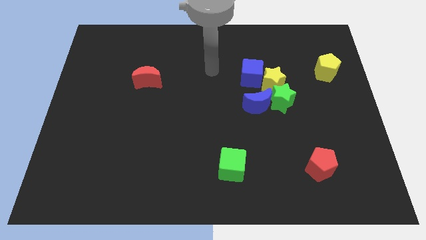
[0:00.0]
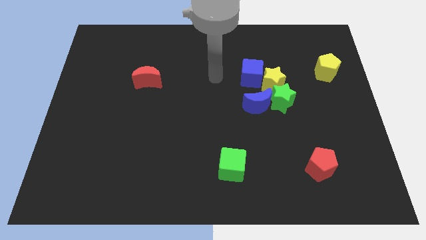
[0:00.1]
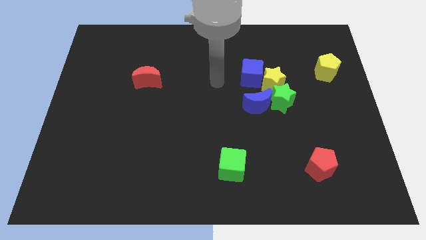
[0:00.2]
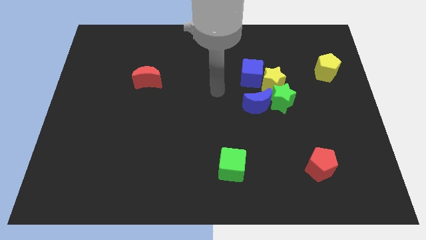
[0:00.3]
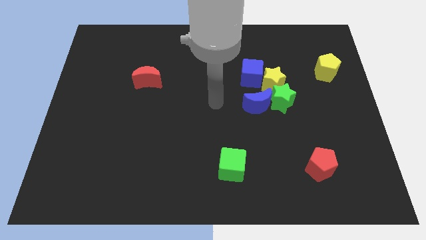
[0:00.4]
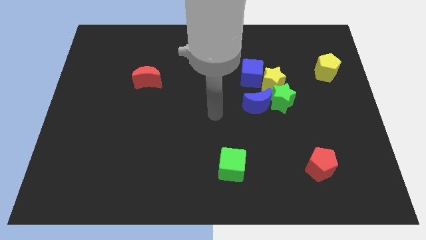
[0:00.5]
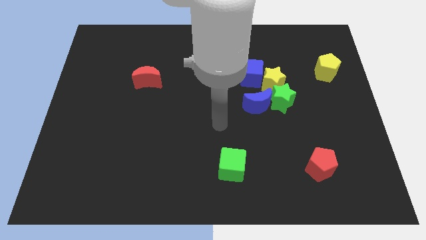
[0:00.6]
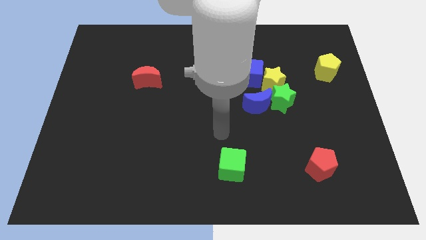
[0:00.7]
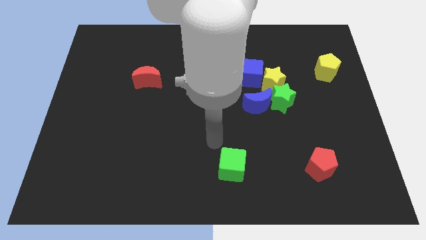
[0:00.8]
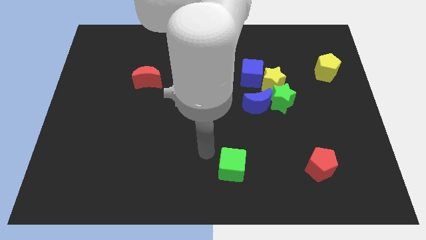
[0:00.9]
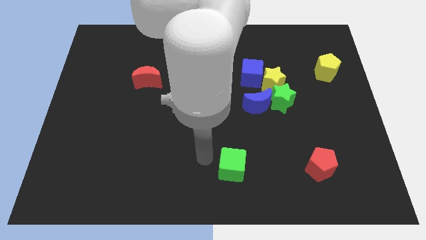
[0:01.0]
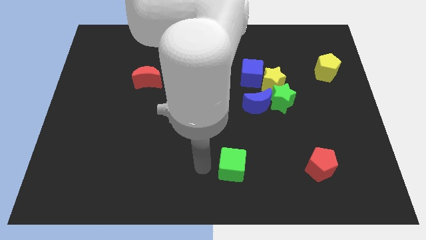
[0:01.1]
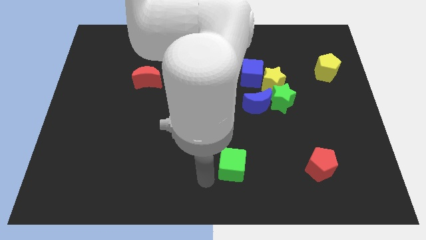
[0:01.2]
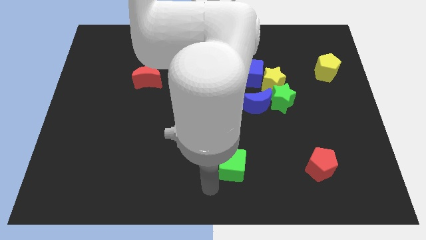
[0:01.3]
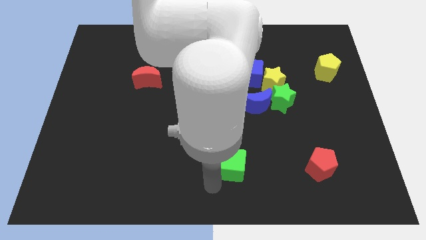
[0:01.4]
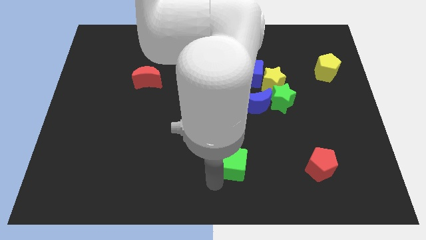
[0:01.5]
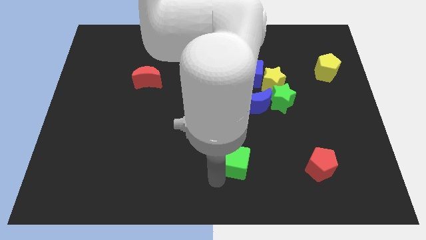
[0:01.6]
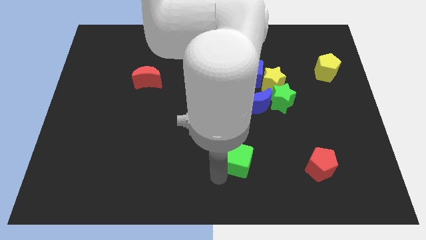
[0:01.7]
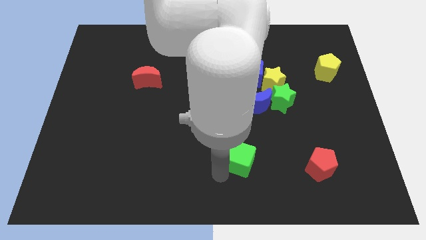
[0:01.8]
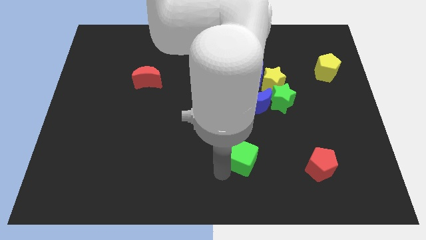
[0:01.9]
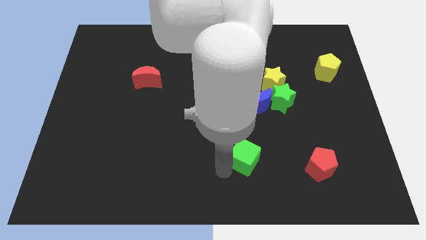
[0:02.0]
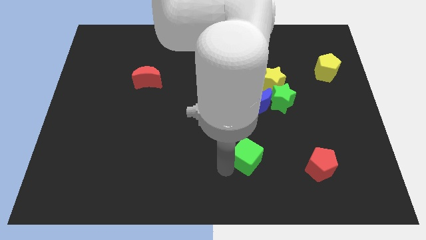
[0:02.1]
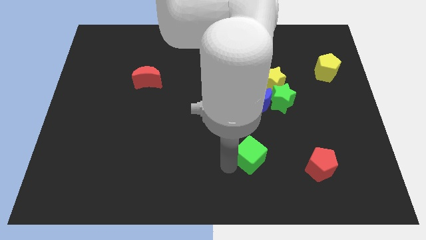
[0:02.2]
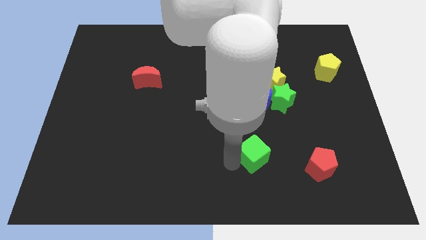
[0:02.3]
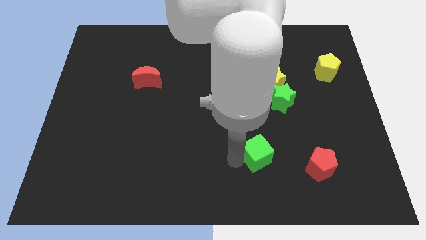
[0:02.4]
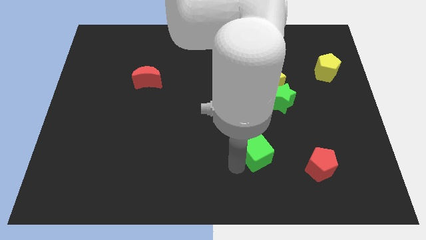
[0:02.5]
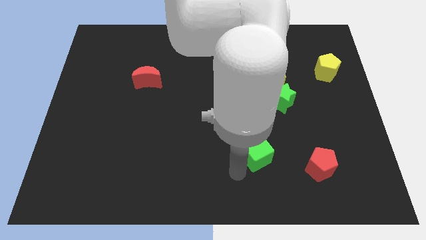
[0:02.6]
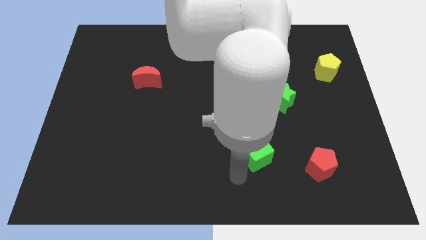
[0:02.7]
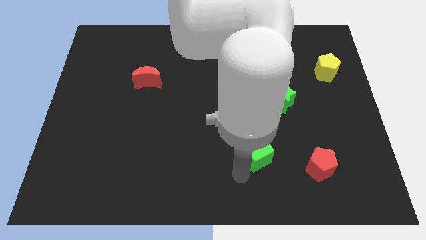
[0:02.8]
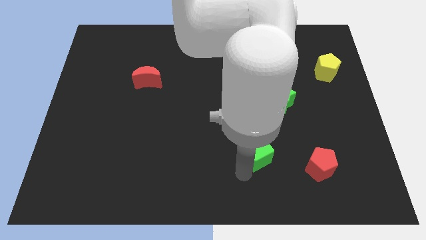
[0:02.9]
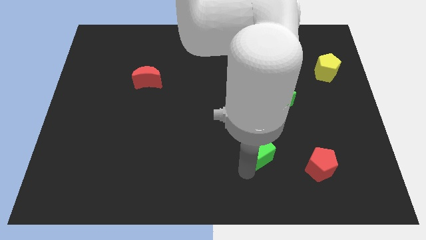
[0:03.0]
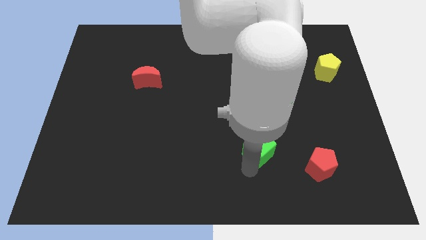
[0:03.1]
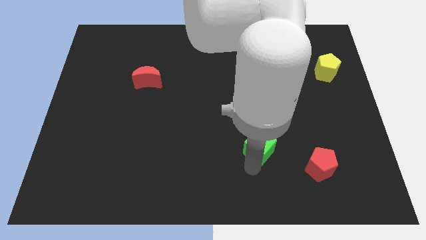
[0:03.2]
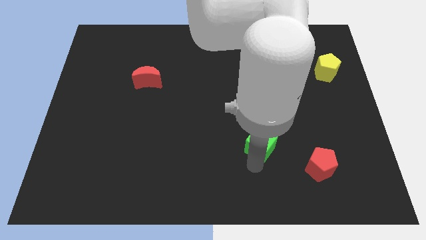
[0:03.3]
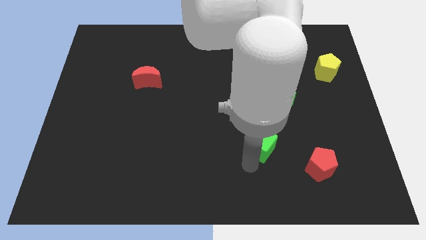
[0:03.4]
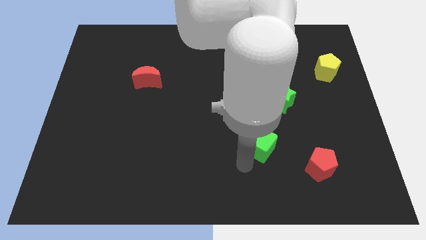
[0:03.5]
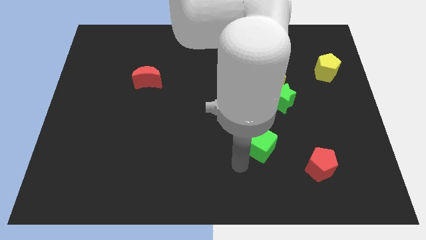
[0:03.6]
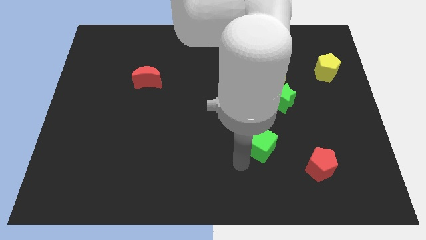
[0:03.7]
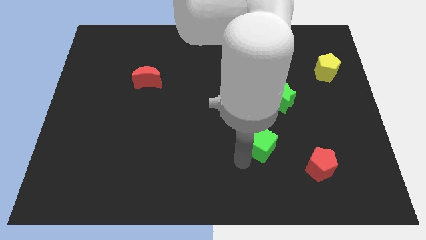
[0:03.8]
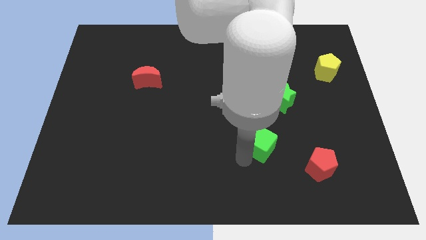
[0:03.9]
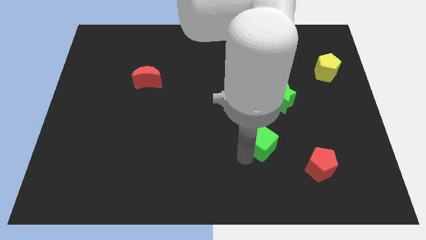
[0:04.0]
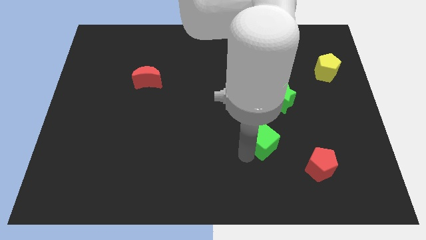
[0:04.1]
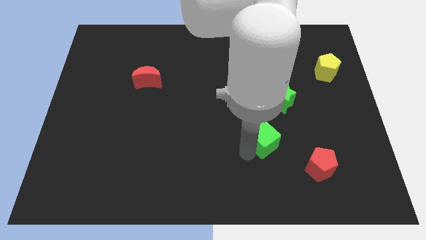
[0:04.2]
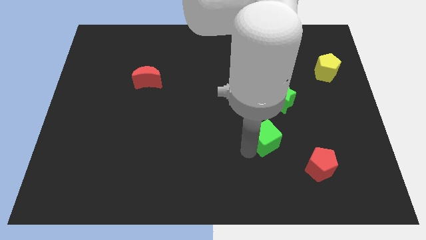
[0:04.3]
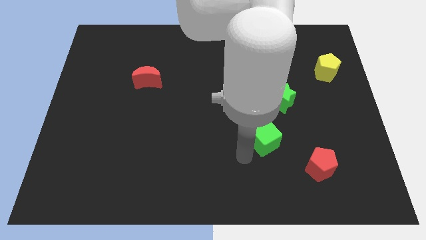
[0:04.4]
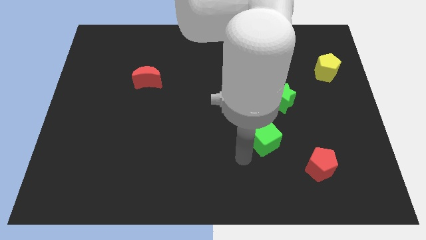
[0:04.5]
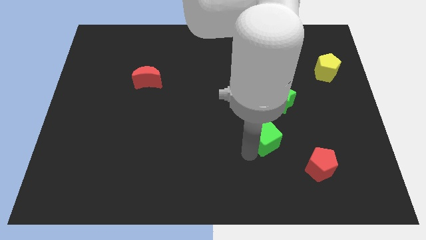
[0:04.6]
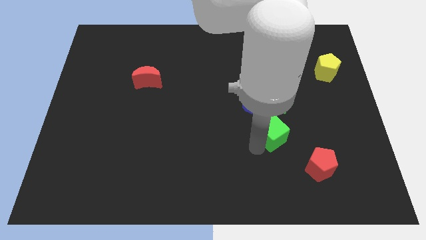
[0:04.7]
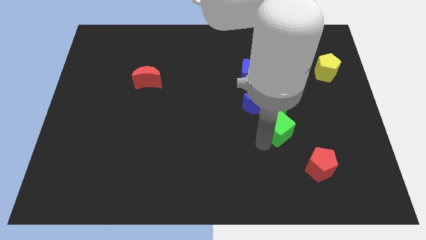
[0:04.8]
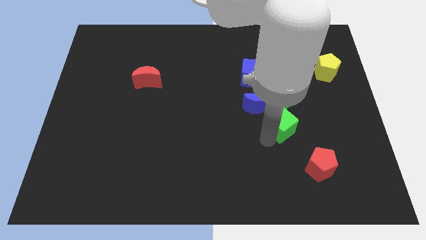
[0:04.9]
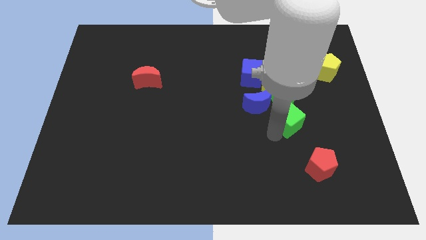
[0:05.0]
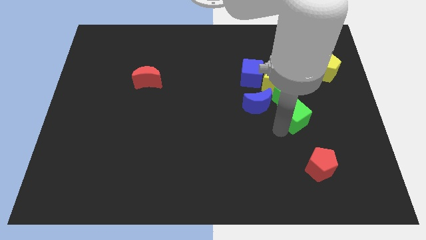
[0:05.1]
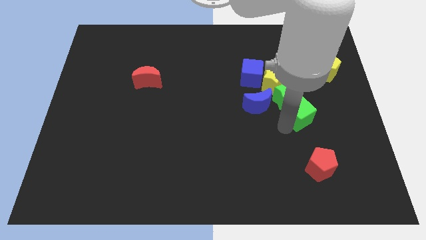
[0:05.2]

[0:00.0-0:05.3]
move the green cube up and right

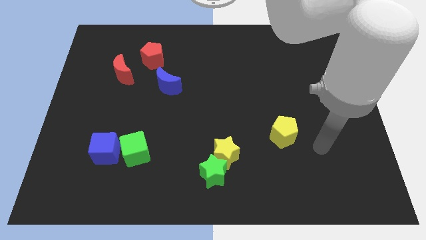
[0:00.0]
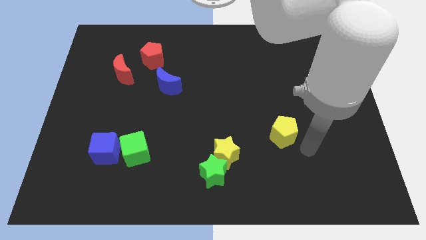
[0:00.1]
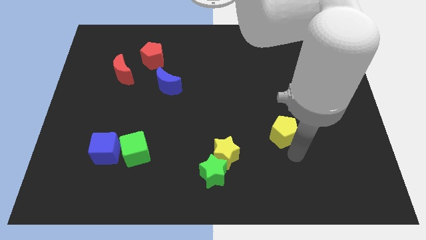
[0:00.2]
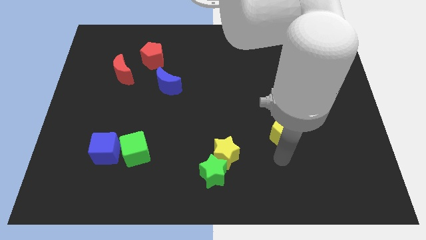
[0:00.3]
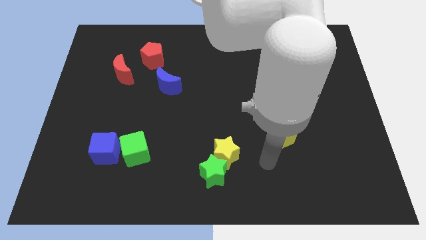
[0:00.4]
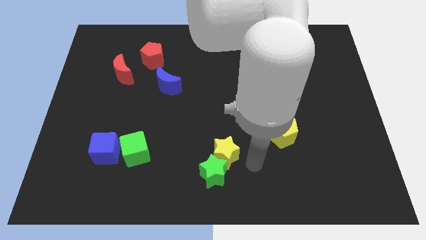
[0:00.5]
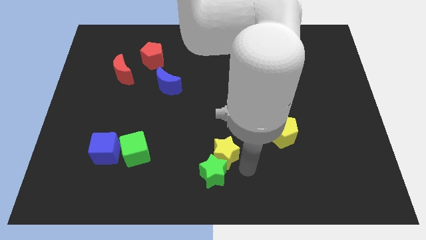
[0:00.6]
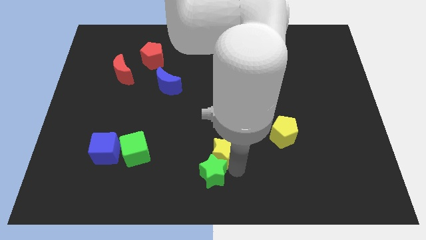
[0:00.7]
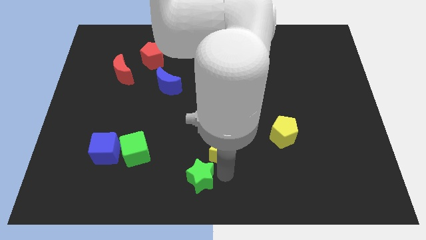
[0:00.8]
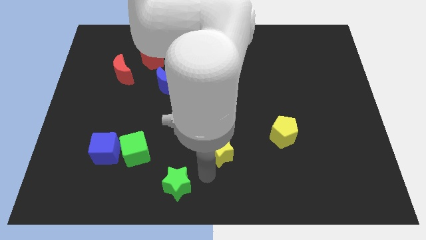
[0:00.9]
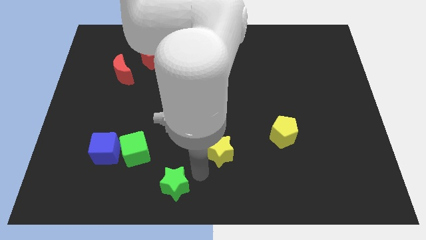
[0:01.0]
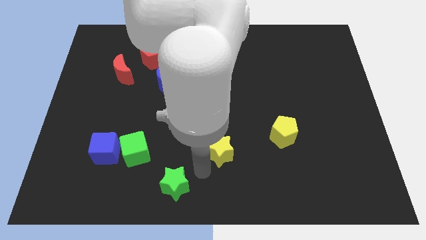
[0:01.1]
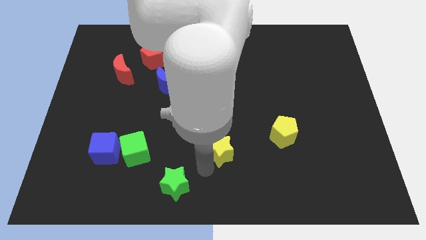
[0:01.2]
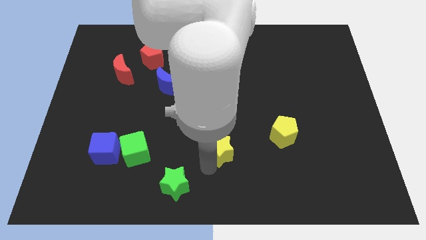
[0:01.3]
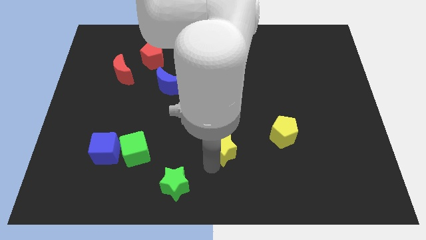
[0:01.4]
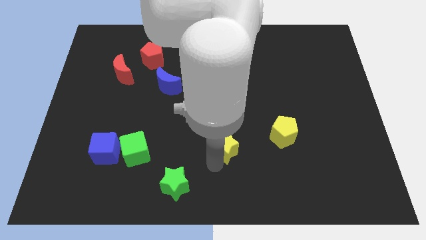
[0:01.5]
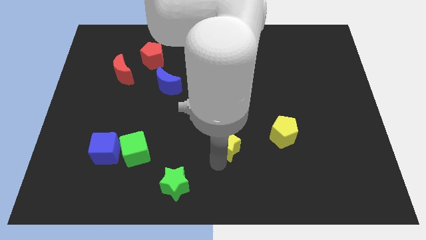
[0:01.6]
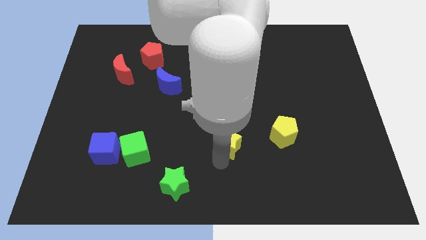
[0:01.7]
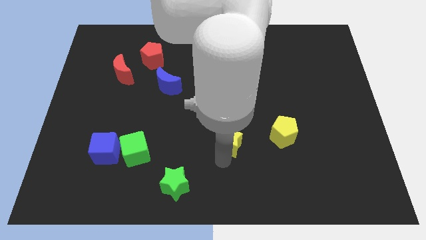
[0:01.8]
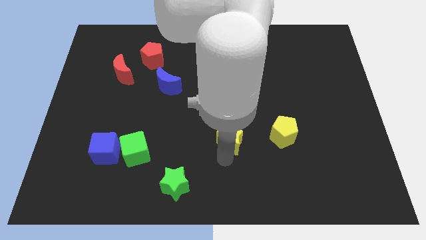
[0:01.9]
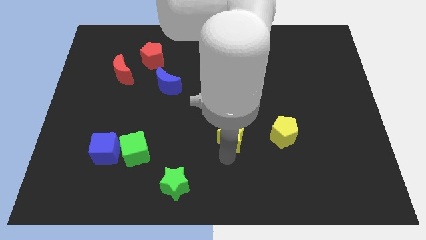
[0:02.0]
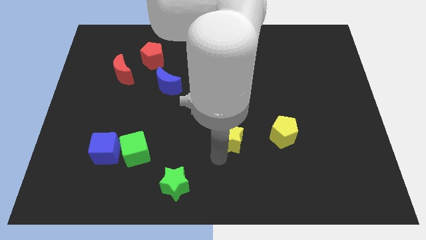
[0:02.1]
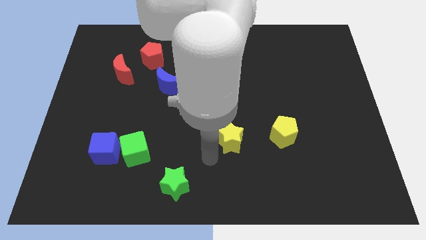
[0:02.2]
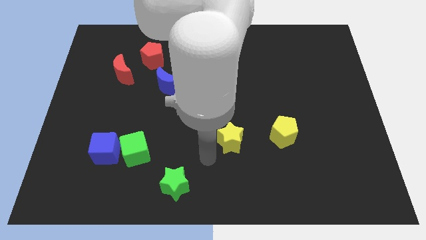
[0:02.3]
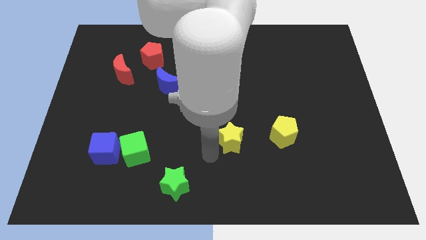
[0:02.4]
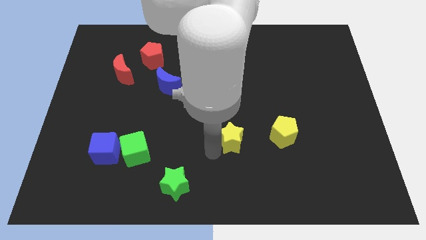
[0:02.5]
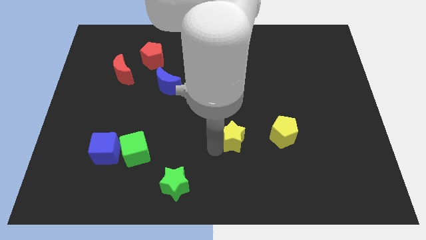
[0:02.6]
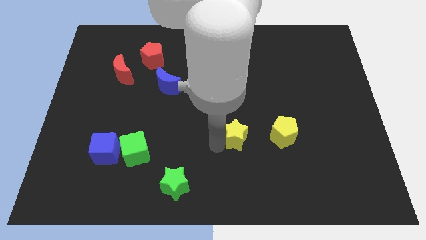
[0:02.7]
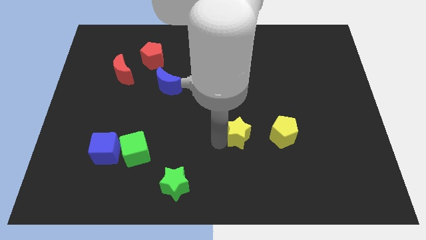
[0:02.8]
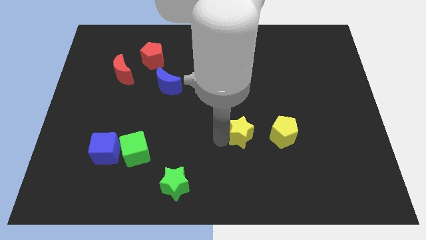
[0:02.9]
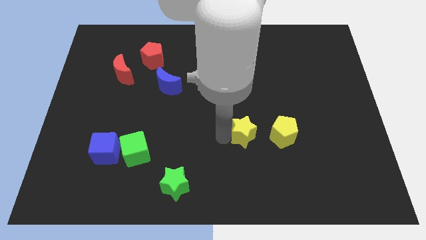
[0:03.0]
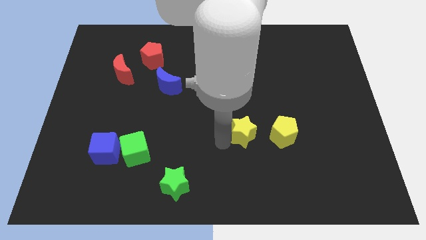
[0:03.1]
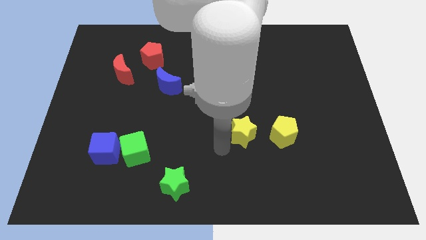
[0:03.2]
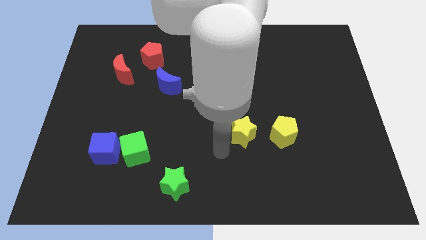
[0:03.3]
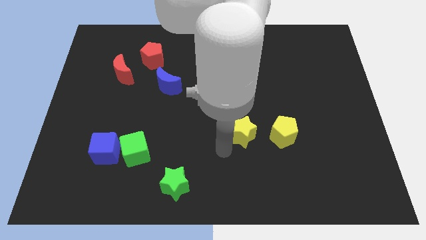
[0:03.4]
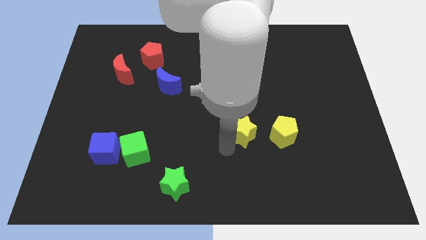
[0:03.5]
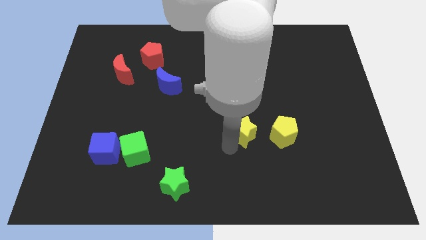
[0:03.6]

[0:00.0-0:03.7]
move the yellow star slightly diagonally upwards and right
